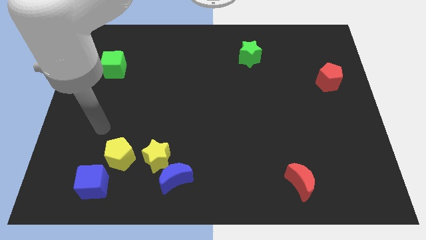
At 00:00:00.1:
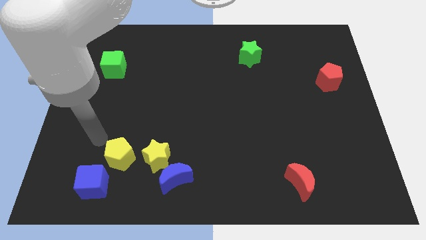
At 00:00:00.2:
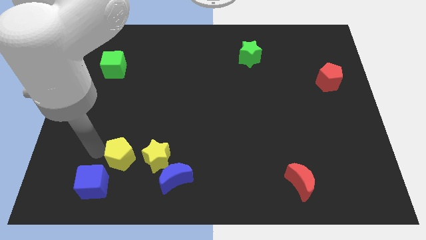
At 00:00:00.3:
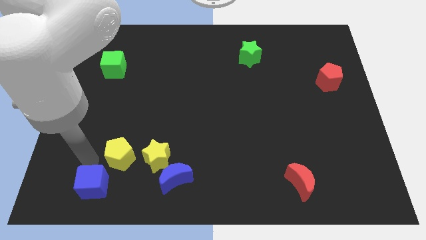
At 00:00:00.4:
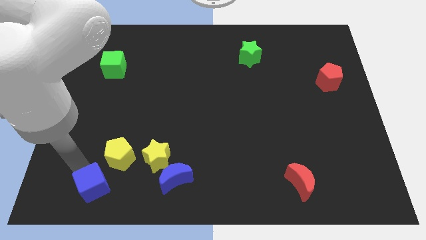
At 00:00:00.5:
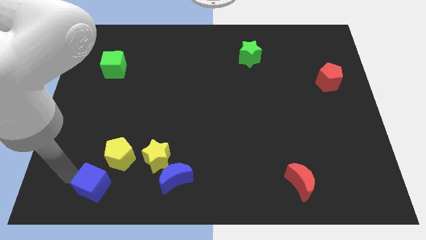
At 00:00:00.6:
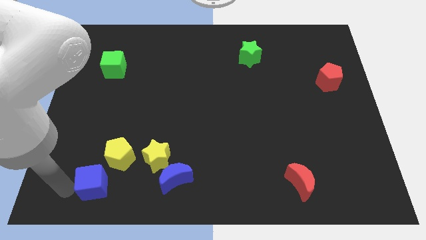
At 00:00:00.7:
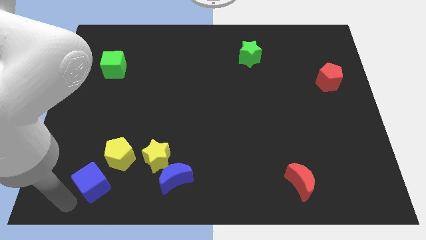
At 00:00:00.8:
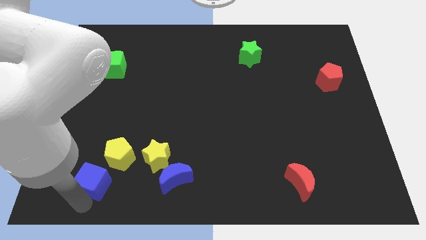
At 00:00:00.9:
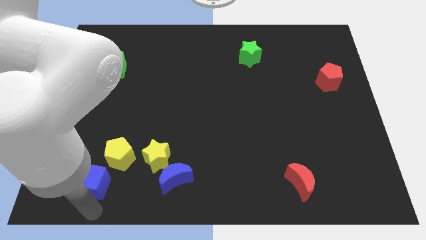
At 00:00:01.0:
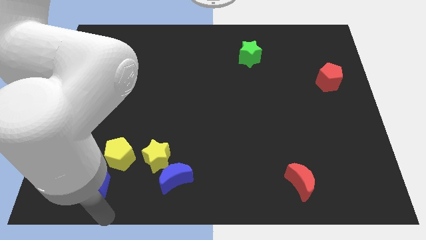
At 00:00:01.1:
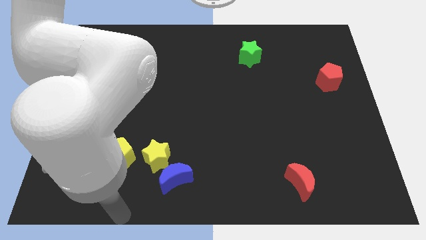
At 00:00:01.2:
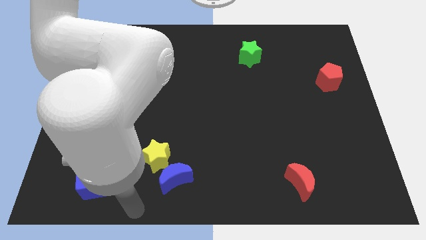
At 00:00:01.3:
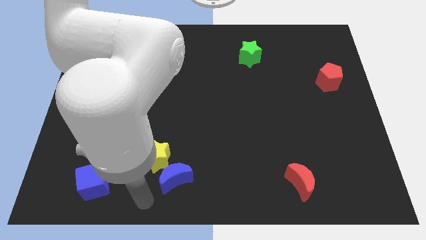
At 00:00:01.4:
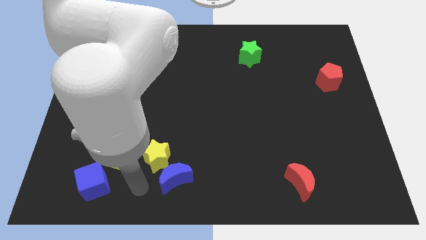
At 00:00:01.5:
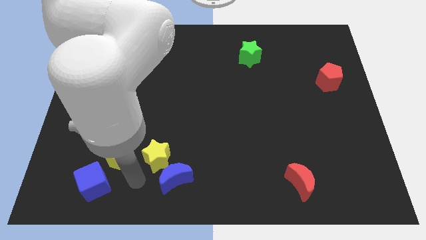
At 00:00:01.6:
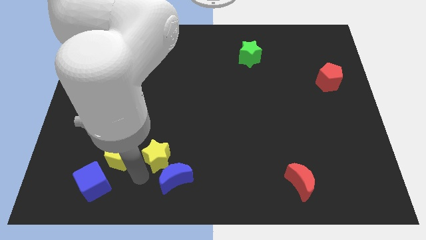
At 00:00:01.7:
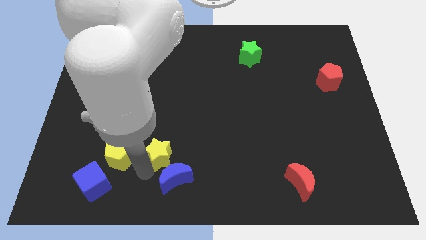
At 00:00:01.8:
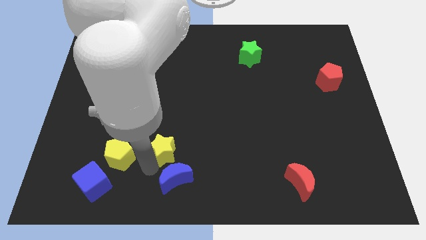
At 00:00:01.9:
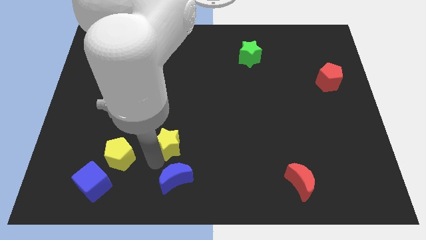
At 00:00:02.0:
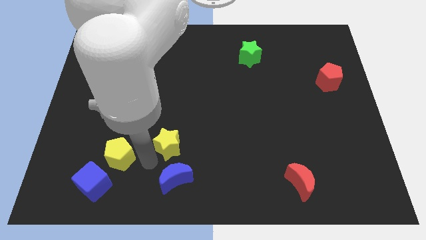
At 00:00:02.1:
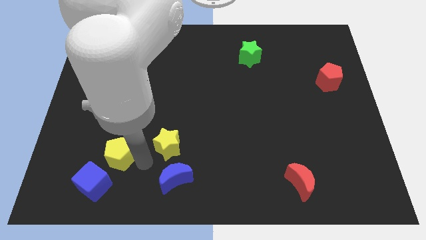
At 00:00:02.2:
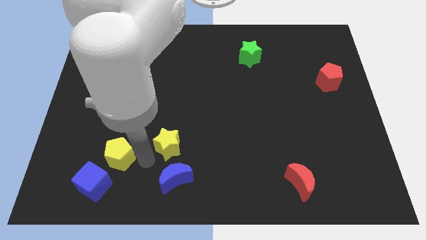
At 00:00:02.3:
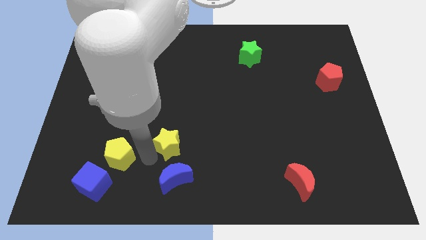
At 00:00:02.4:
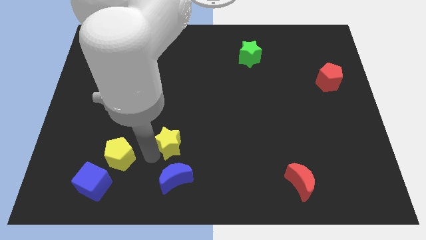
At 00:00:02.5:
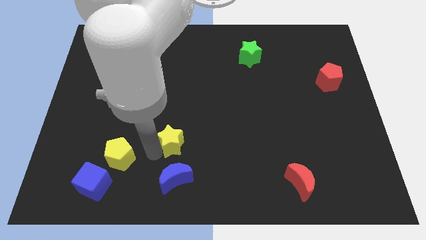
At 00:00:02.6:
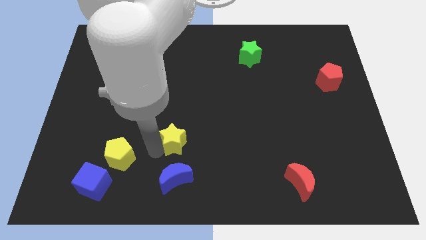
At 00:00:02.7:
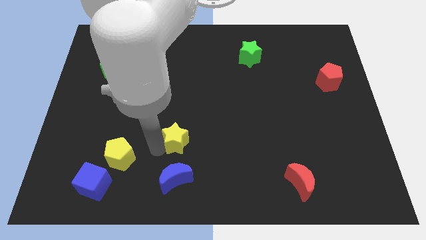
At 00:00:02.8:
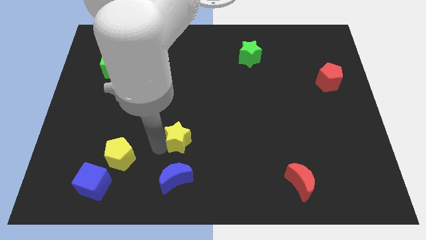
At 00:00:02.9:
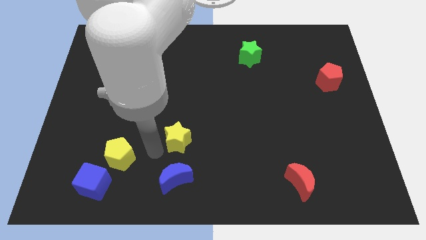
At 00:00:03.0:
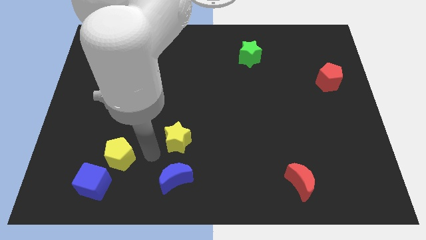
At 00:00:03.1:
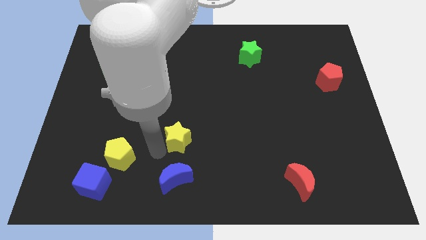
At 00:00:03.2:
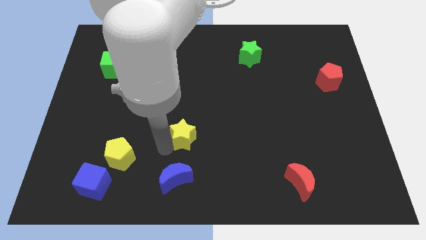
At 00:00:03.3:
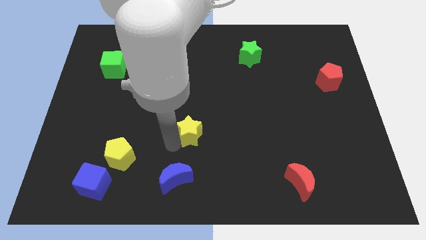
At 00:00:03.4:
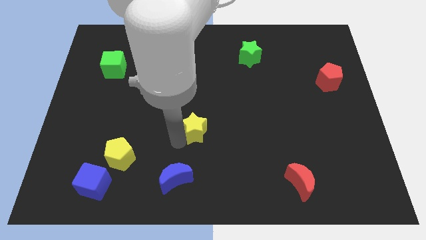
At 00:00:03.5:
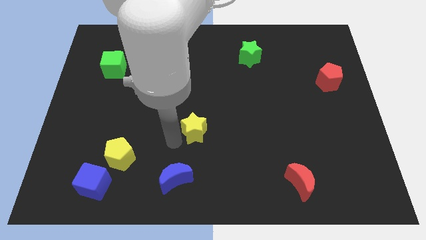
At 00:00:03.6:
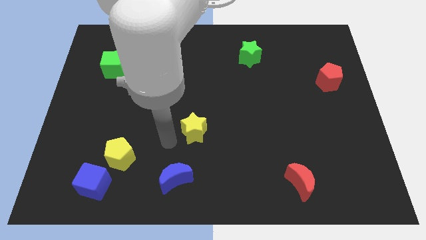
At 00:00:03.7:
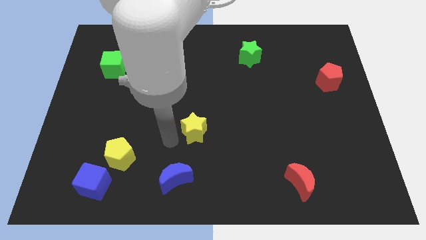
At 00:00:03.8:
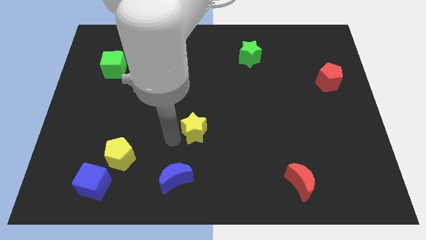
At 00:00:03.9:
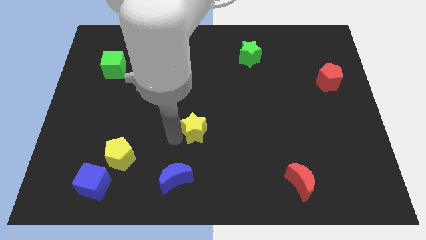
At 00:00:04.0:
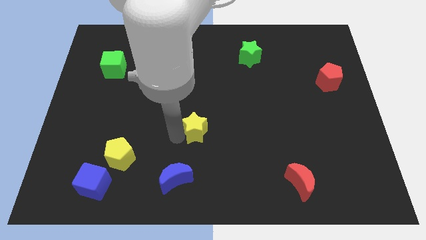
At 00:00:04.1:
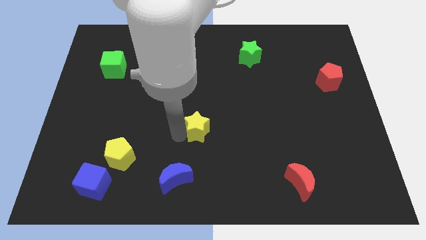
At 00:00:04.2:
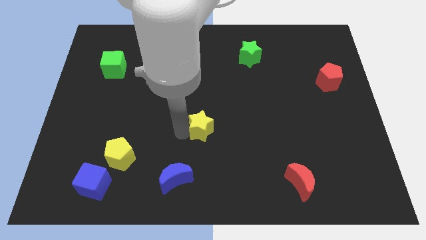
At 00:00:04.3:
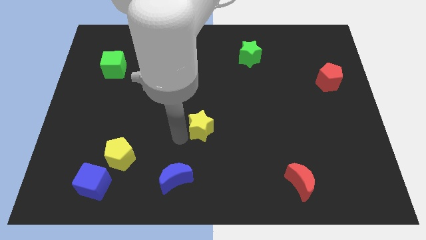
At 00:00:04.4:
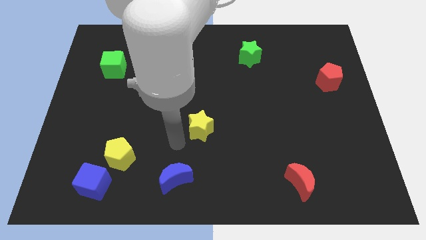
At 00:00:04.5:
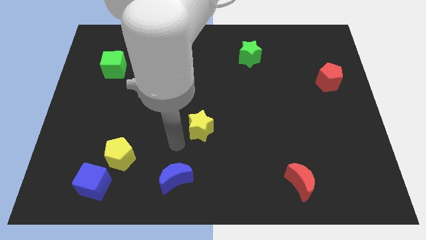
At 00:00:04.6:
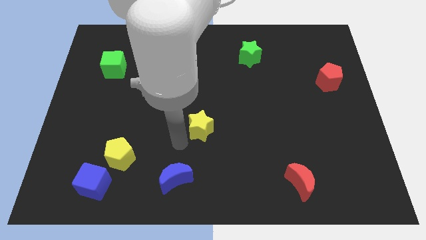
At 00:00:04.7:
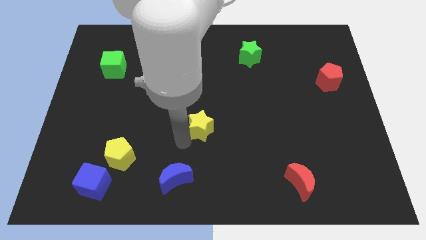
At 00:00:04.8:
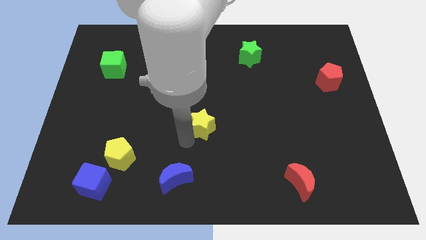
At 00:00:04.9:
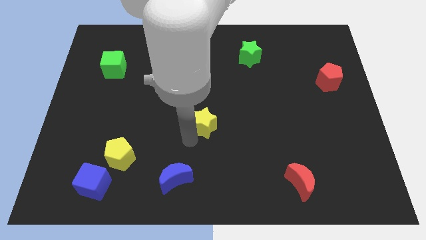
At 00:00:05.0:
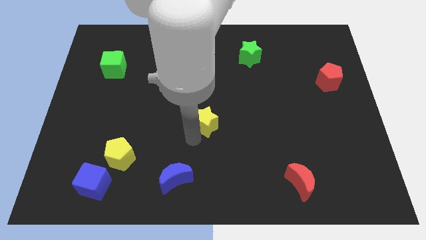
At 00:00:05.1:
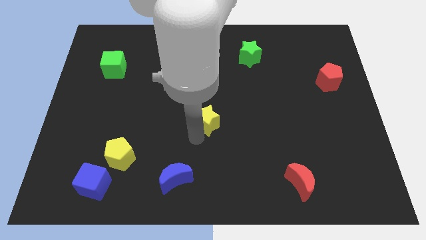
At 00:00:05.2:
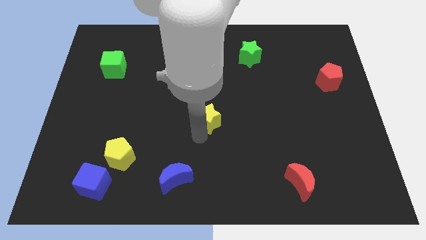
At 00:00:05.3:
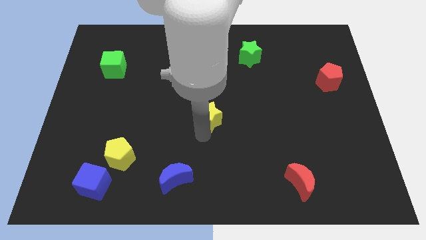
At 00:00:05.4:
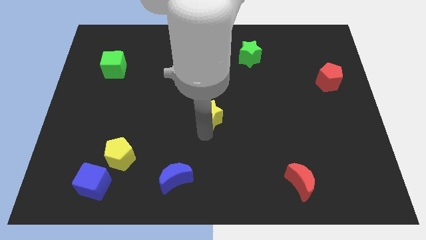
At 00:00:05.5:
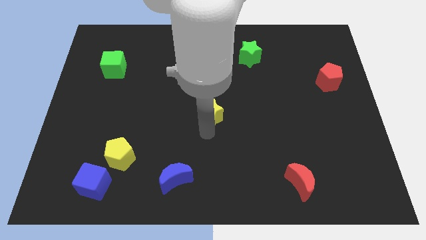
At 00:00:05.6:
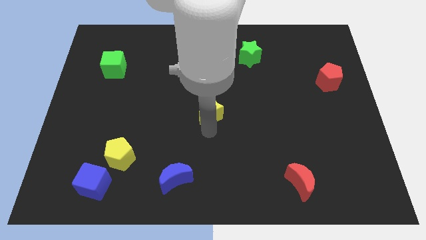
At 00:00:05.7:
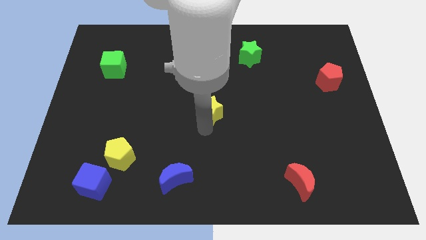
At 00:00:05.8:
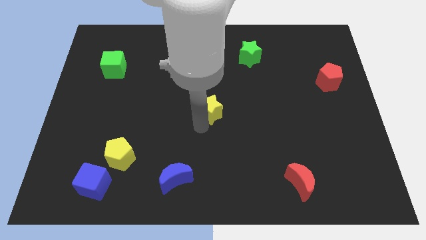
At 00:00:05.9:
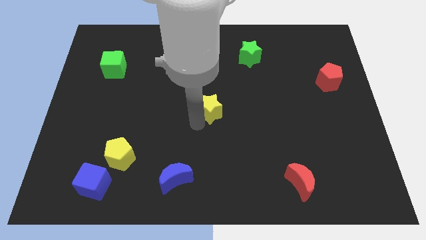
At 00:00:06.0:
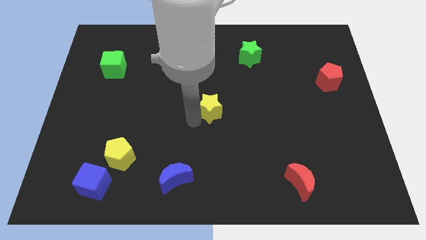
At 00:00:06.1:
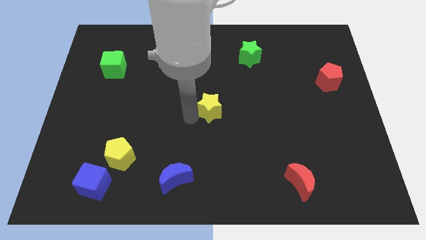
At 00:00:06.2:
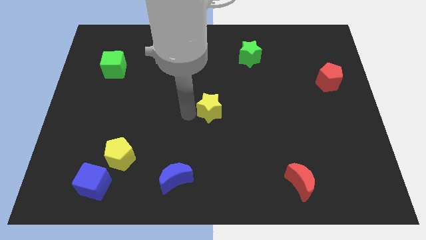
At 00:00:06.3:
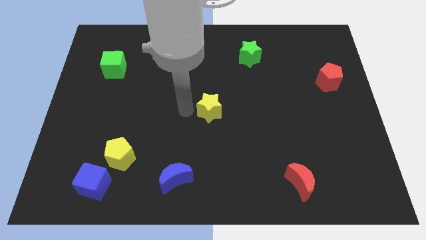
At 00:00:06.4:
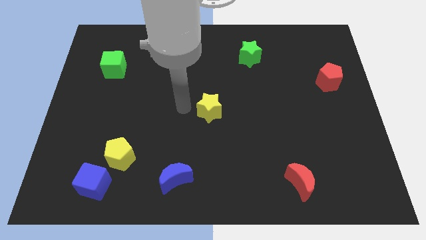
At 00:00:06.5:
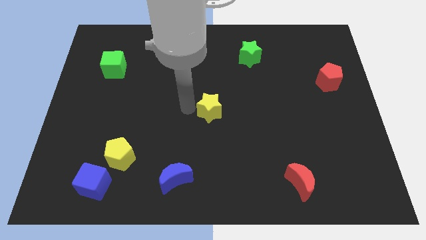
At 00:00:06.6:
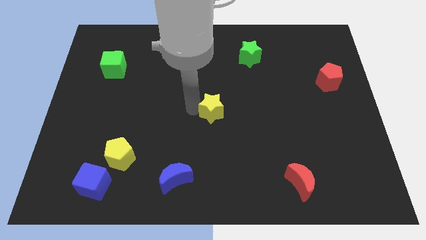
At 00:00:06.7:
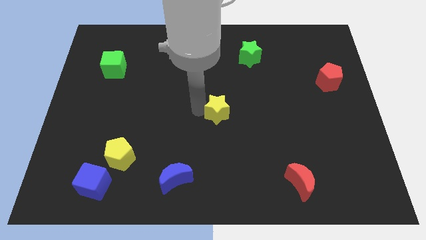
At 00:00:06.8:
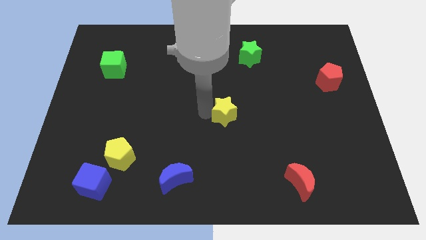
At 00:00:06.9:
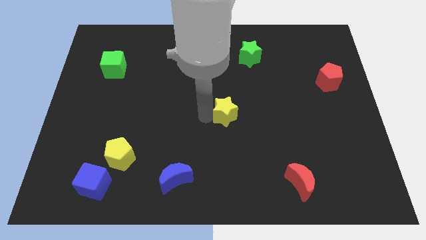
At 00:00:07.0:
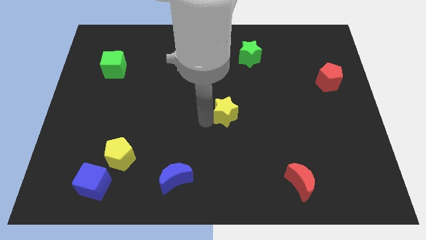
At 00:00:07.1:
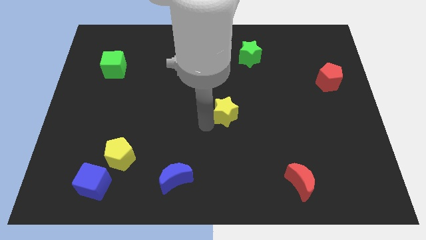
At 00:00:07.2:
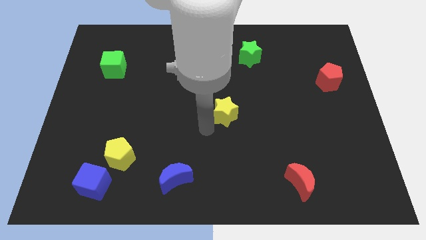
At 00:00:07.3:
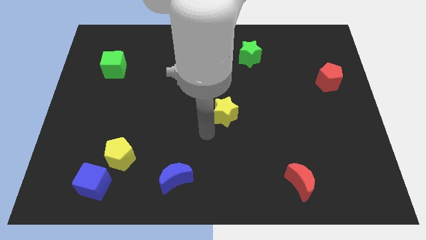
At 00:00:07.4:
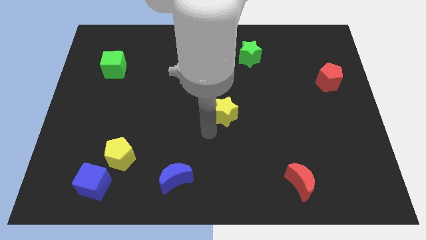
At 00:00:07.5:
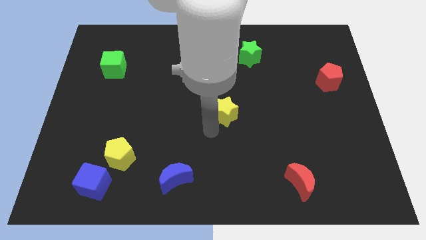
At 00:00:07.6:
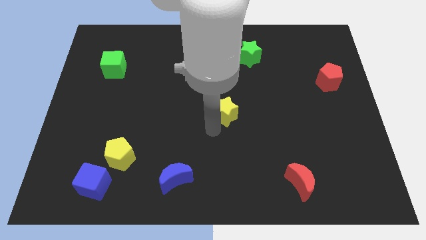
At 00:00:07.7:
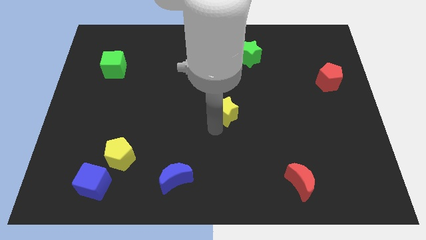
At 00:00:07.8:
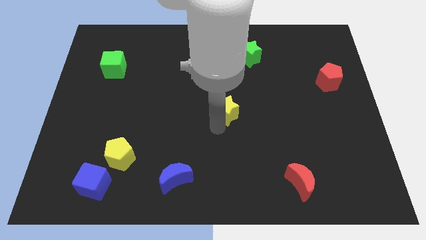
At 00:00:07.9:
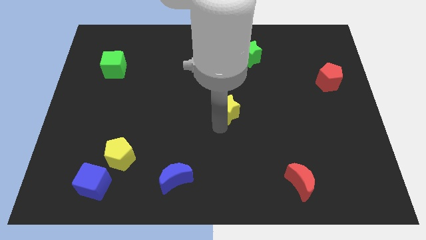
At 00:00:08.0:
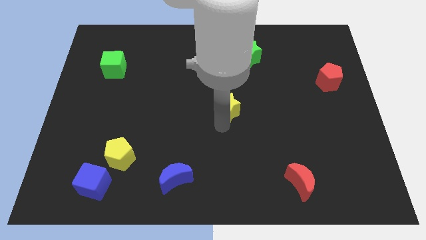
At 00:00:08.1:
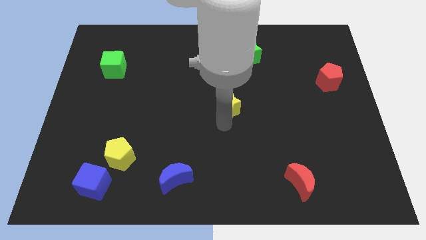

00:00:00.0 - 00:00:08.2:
push the yellow star up and then to the right
